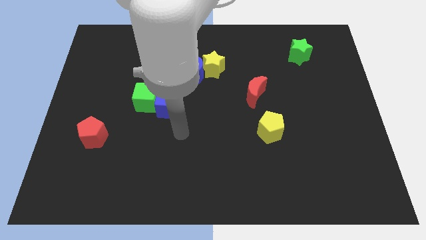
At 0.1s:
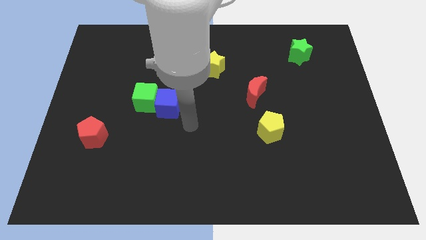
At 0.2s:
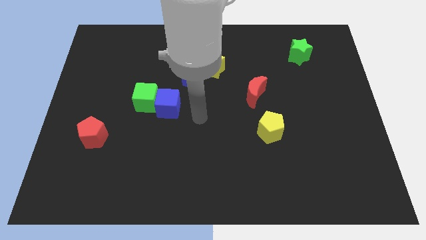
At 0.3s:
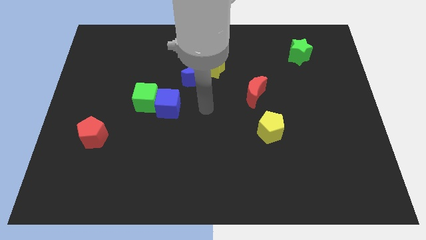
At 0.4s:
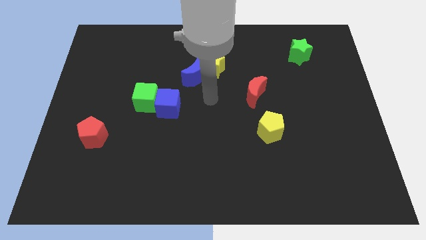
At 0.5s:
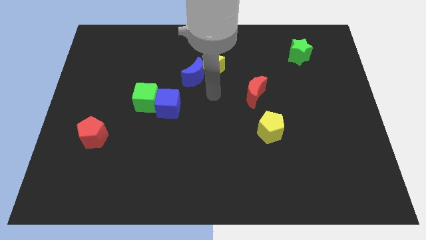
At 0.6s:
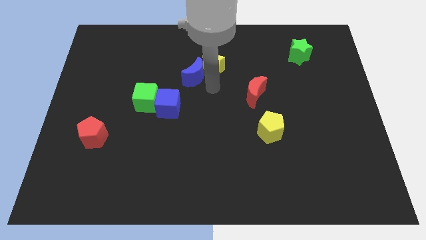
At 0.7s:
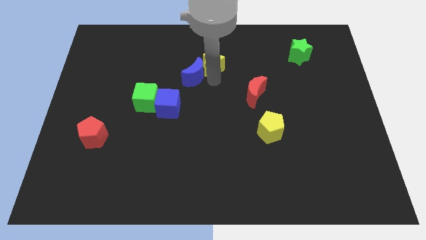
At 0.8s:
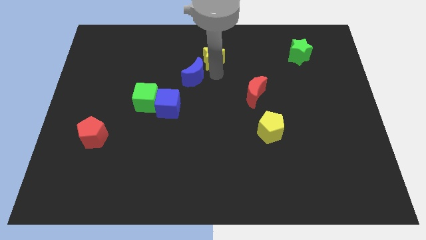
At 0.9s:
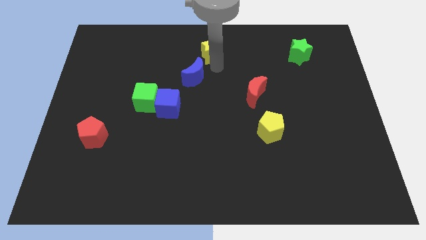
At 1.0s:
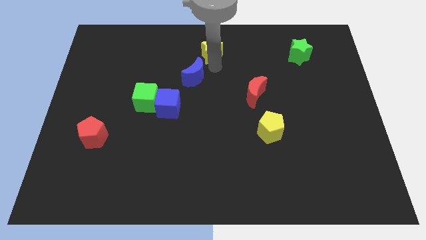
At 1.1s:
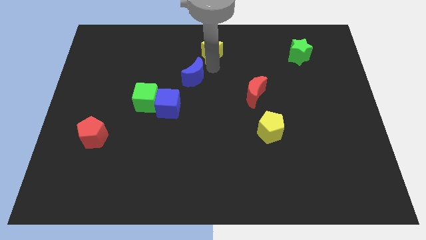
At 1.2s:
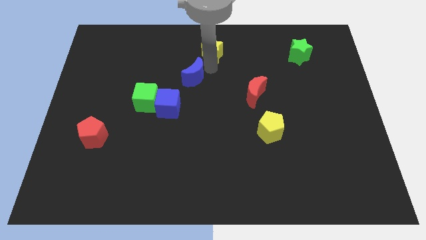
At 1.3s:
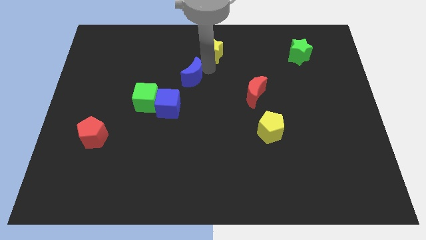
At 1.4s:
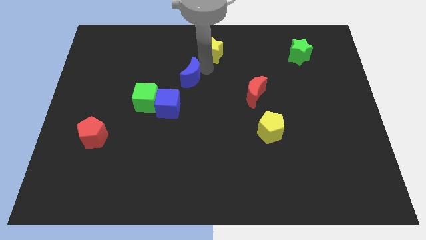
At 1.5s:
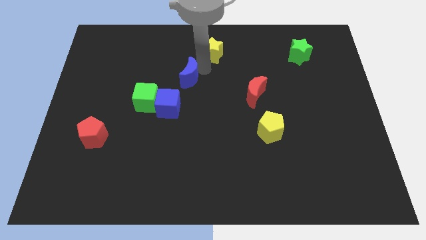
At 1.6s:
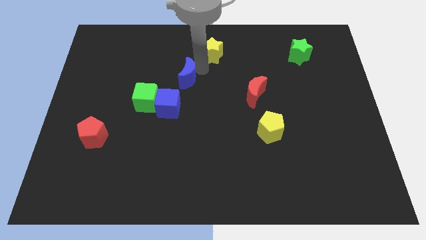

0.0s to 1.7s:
separate the blue moon from the yellow star

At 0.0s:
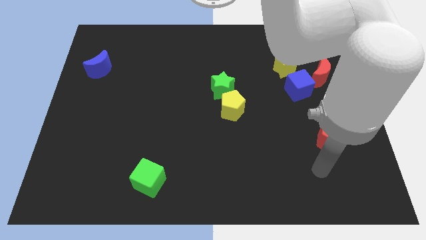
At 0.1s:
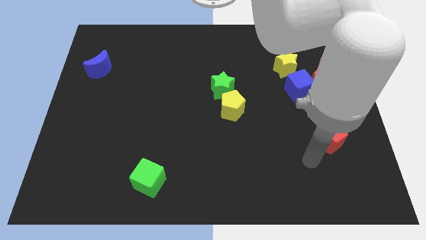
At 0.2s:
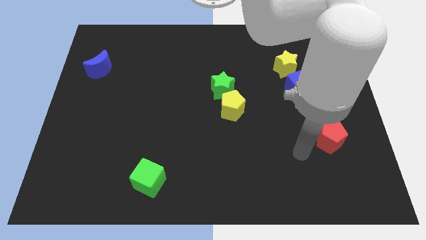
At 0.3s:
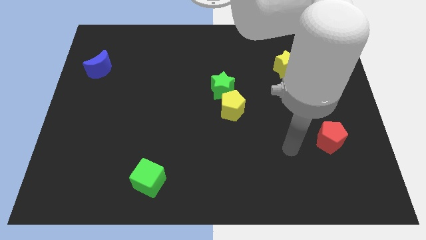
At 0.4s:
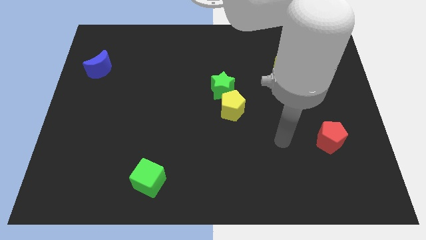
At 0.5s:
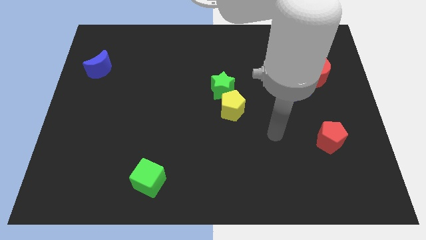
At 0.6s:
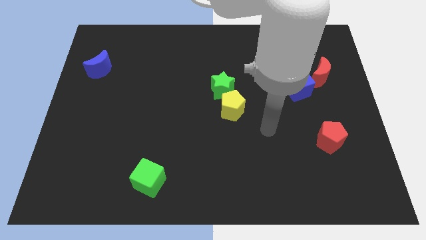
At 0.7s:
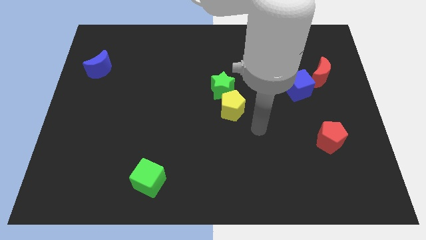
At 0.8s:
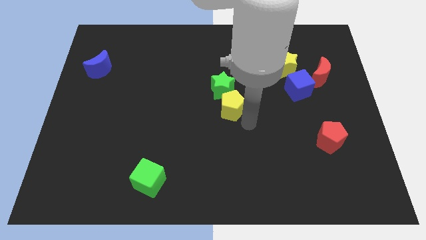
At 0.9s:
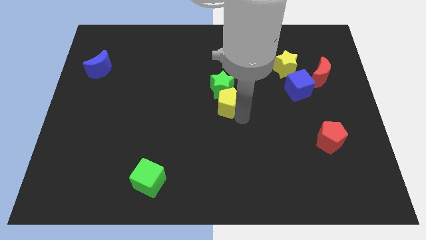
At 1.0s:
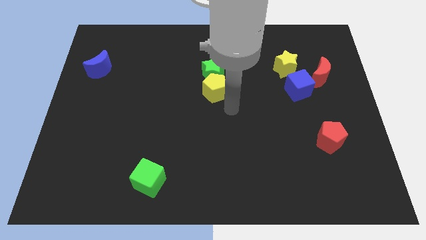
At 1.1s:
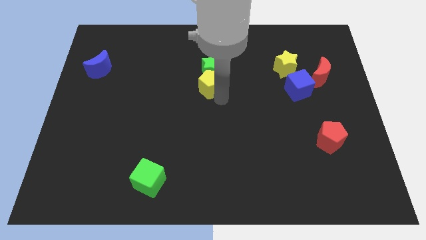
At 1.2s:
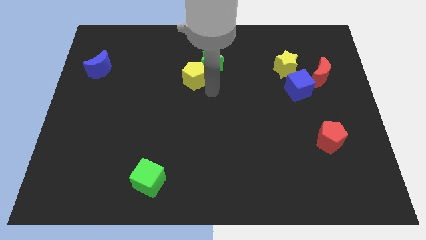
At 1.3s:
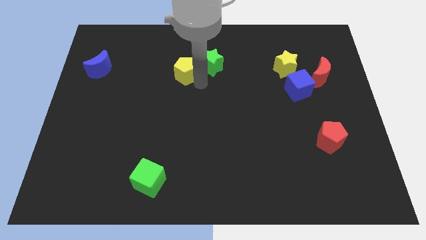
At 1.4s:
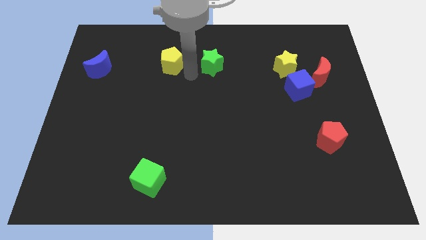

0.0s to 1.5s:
separate the green star from the yellow pentagon

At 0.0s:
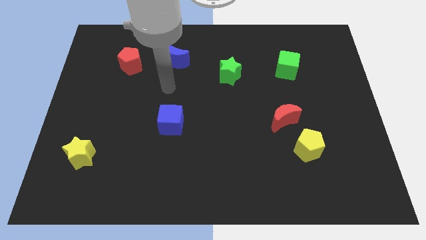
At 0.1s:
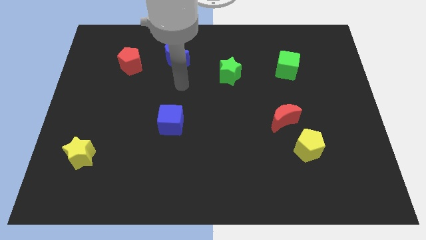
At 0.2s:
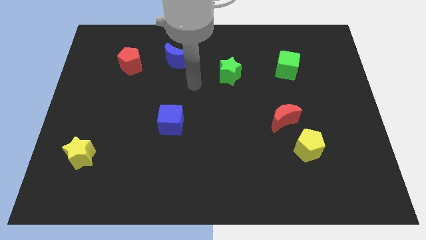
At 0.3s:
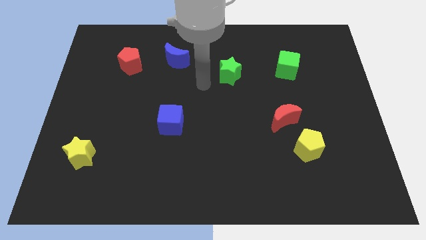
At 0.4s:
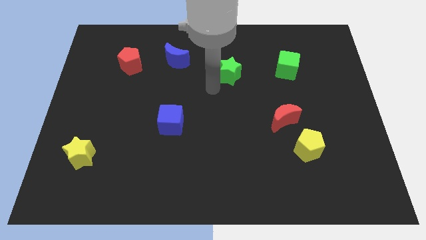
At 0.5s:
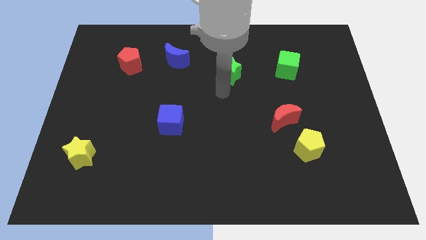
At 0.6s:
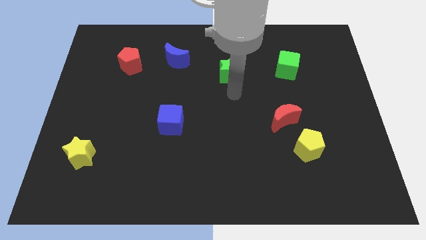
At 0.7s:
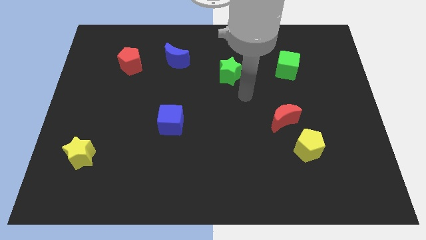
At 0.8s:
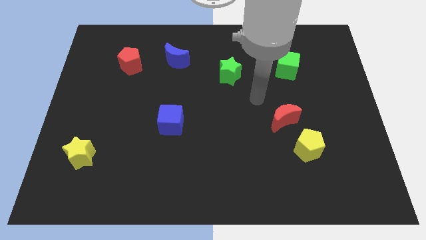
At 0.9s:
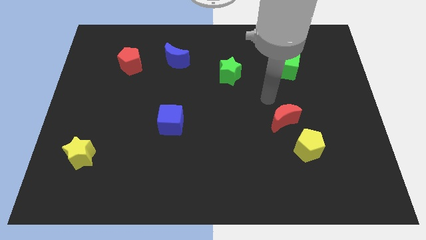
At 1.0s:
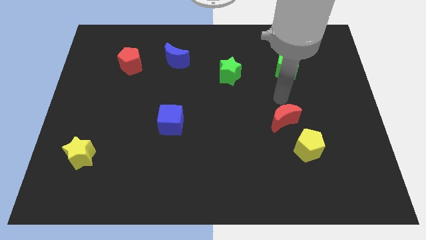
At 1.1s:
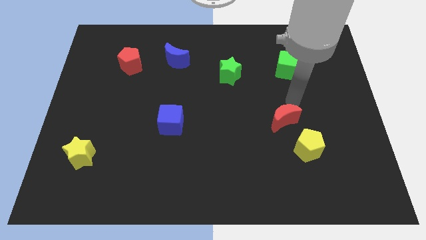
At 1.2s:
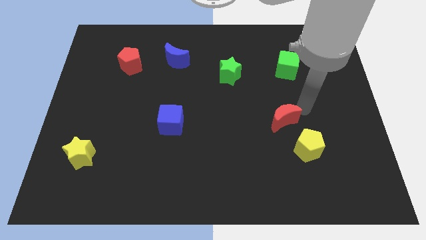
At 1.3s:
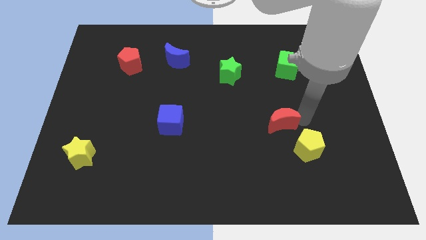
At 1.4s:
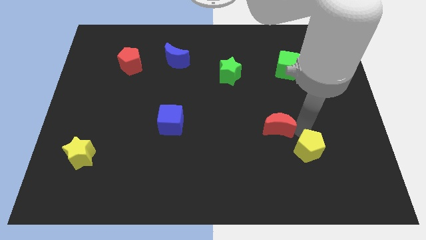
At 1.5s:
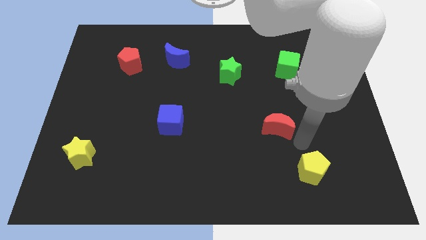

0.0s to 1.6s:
move the red moon away from the yellow pentagon

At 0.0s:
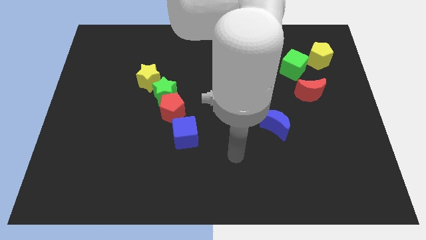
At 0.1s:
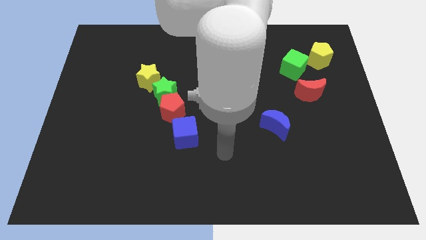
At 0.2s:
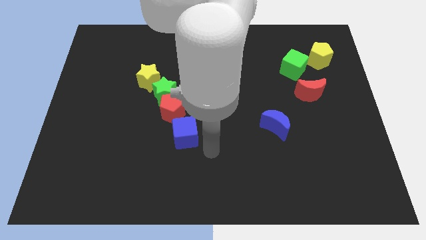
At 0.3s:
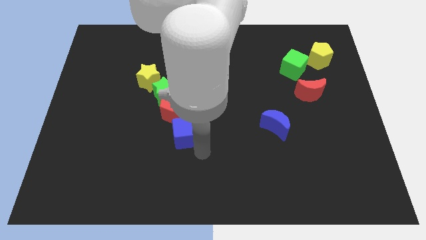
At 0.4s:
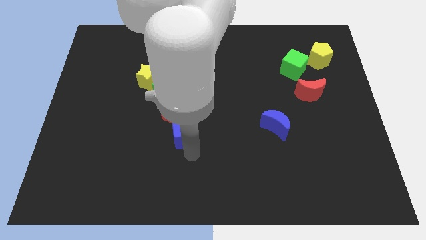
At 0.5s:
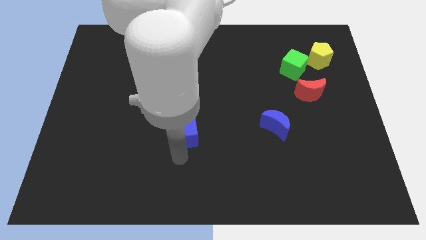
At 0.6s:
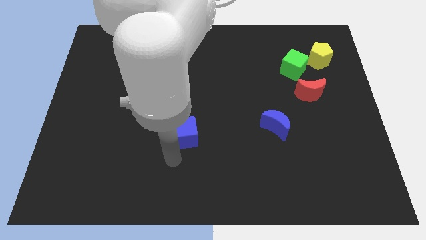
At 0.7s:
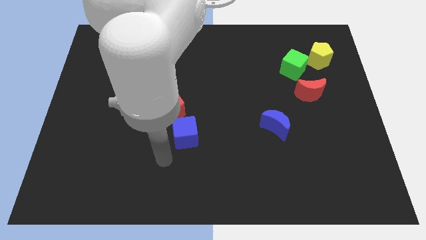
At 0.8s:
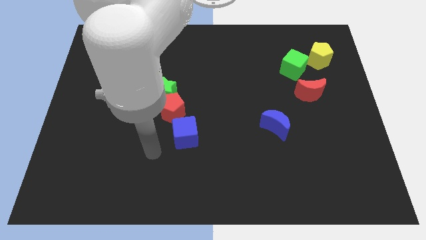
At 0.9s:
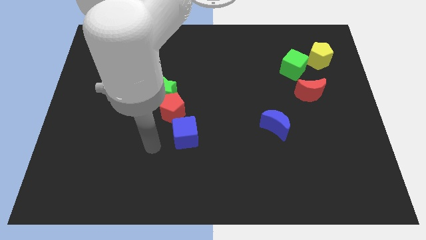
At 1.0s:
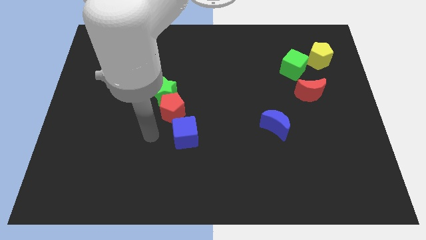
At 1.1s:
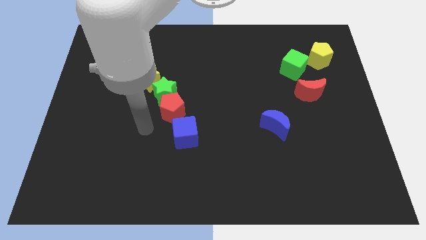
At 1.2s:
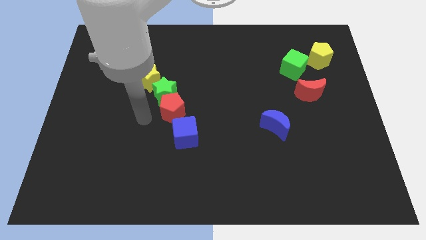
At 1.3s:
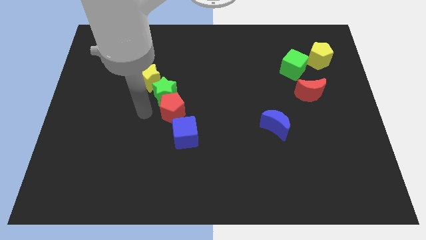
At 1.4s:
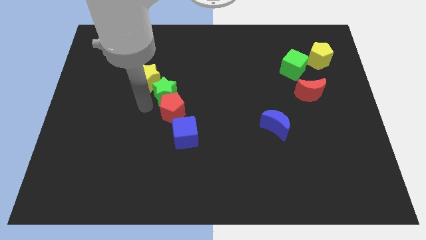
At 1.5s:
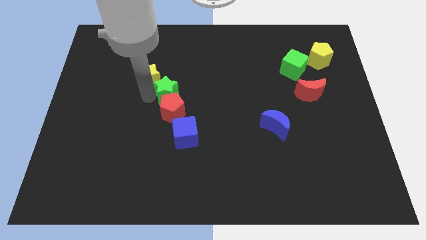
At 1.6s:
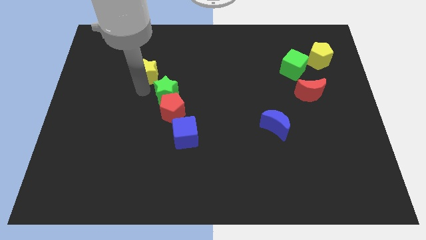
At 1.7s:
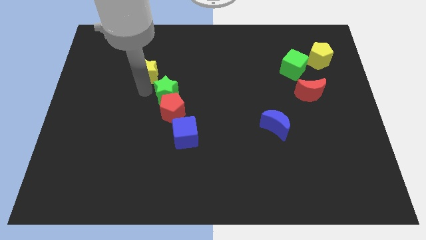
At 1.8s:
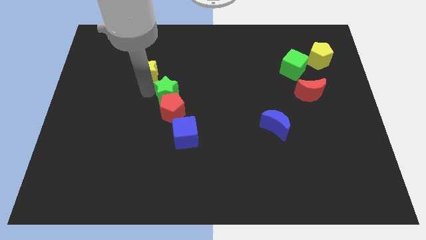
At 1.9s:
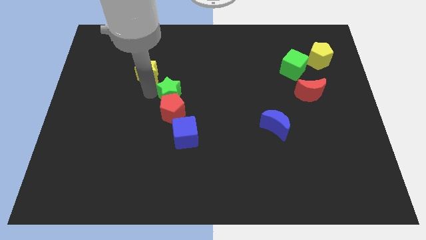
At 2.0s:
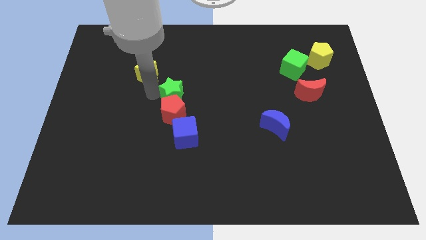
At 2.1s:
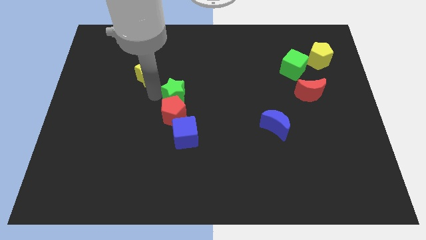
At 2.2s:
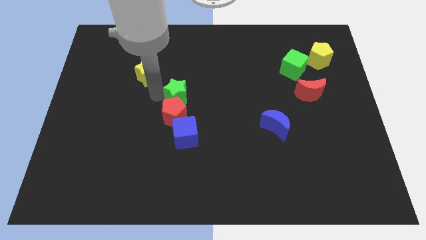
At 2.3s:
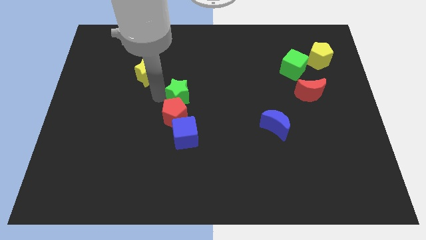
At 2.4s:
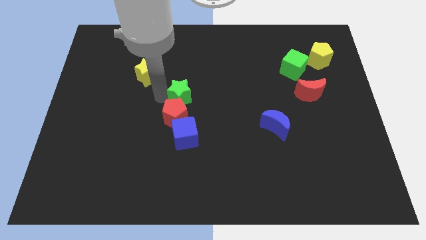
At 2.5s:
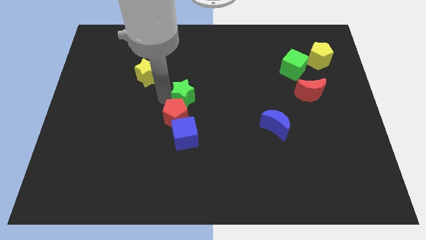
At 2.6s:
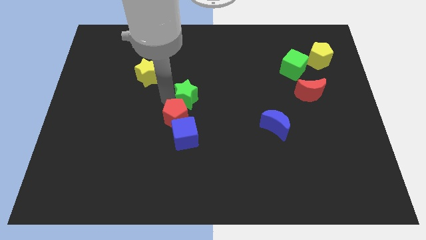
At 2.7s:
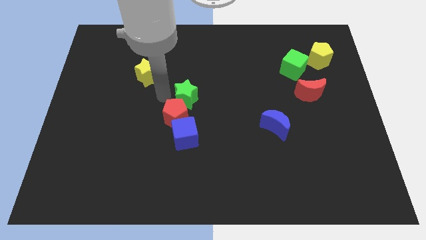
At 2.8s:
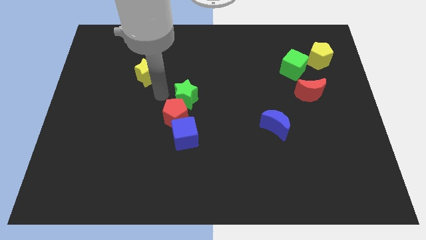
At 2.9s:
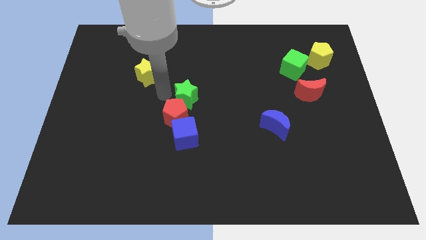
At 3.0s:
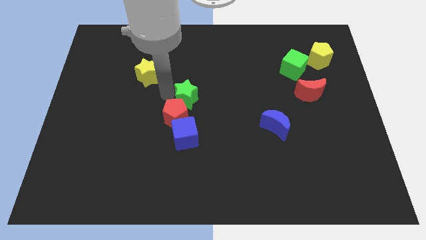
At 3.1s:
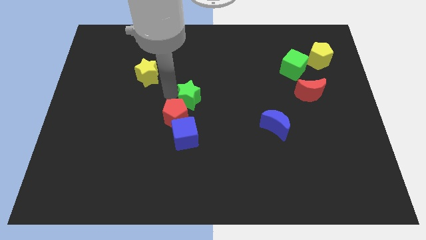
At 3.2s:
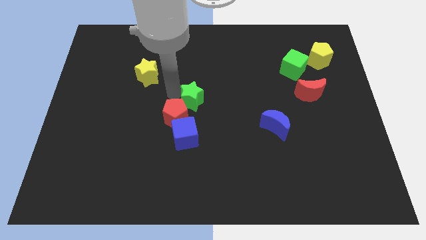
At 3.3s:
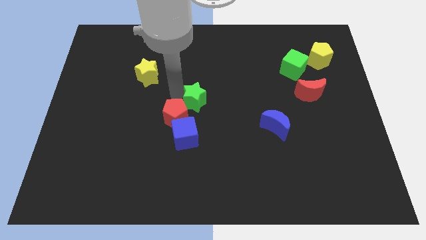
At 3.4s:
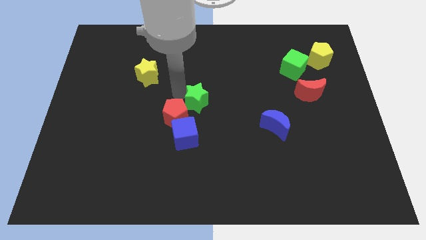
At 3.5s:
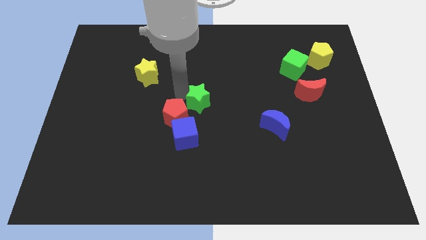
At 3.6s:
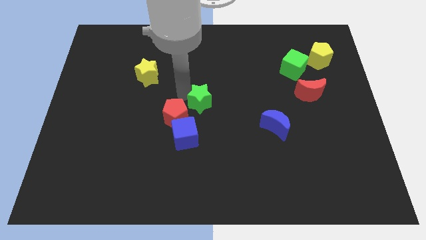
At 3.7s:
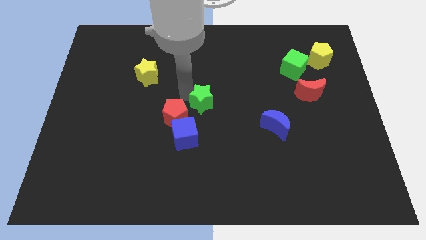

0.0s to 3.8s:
separate the green star from the red pentagon and yellow star

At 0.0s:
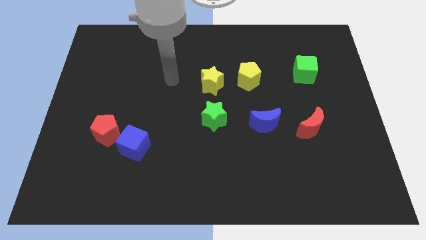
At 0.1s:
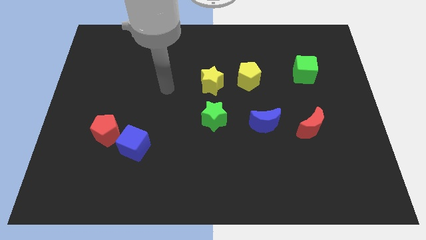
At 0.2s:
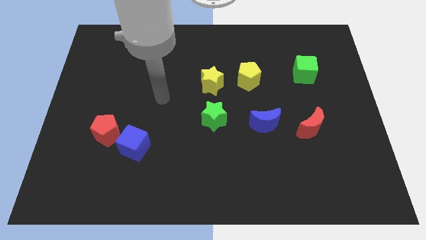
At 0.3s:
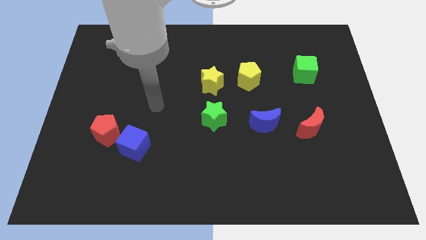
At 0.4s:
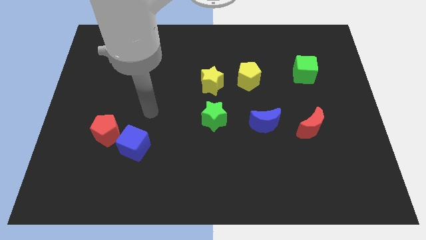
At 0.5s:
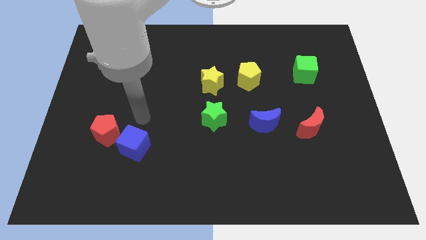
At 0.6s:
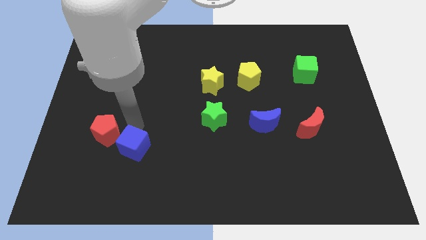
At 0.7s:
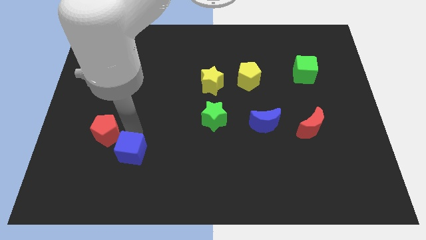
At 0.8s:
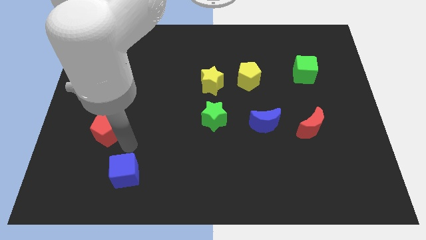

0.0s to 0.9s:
separate the red pentagon from the blue cube
